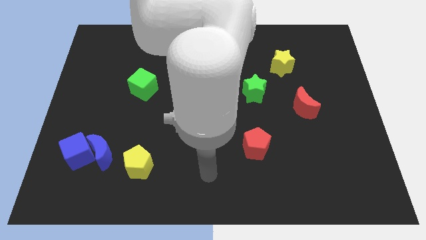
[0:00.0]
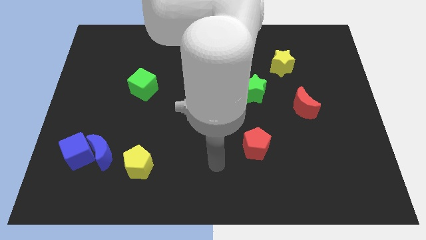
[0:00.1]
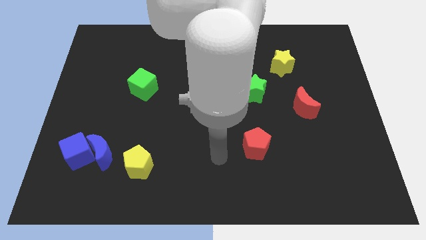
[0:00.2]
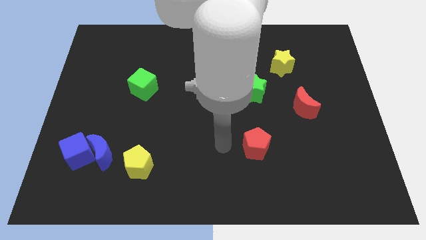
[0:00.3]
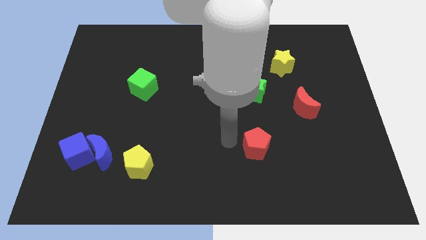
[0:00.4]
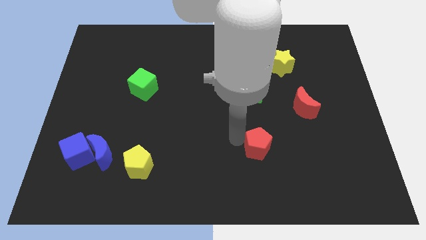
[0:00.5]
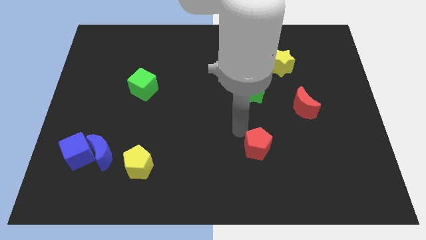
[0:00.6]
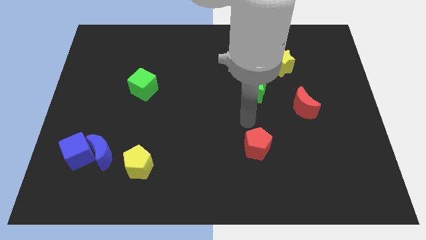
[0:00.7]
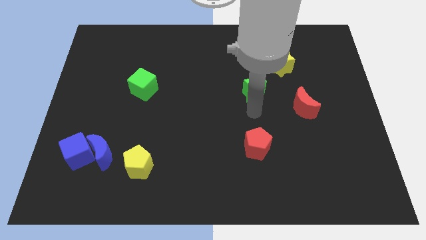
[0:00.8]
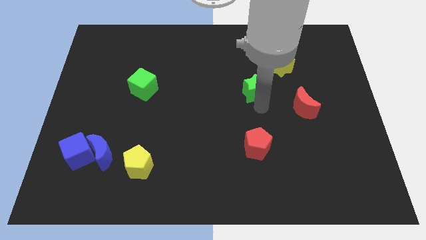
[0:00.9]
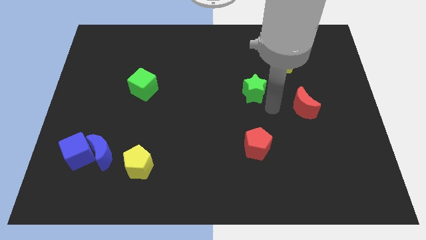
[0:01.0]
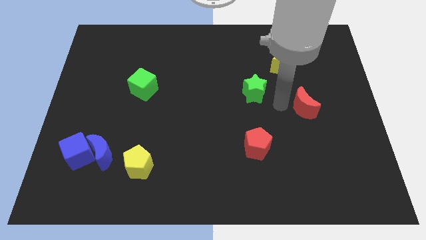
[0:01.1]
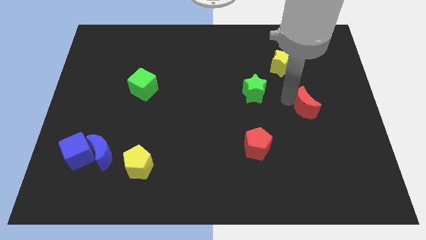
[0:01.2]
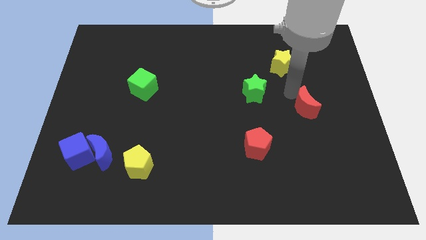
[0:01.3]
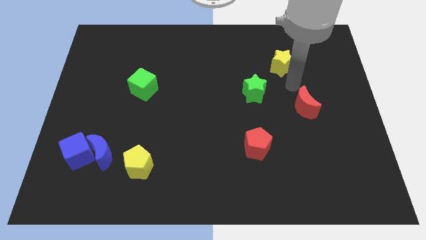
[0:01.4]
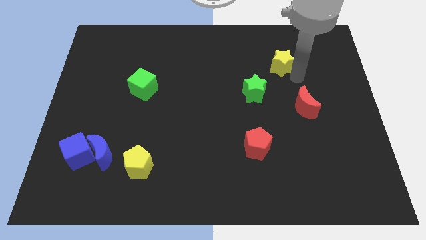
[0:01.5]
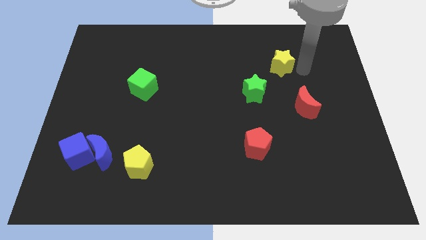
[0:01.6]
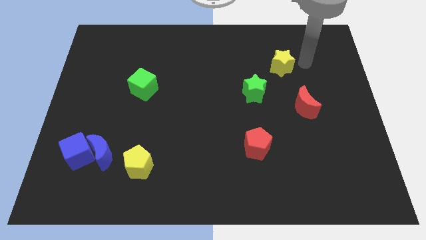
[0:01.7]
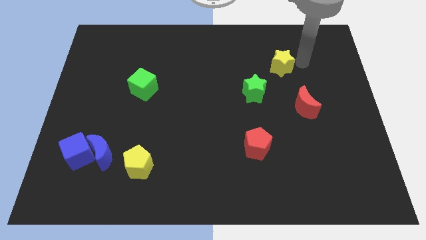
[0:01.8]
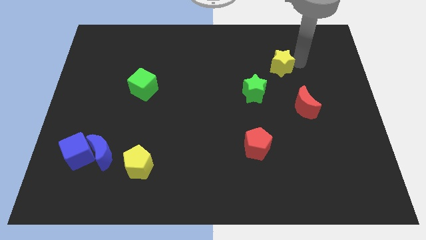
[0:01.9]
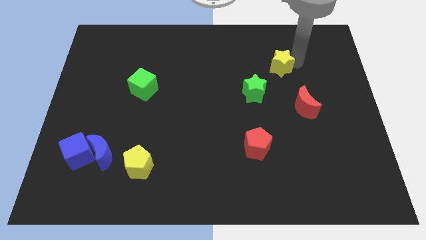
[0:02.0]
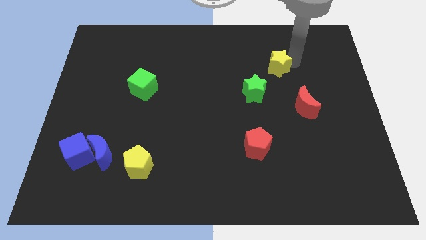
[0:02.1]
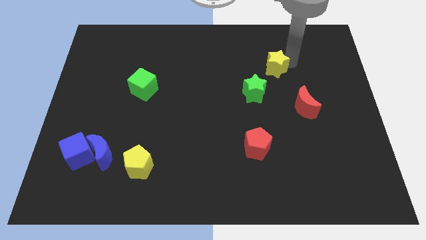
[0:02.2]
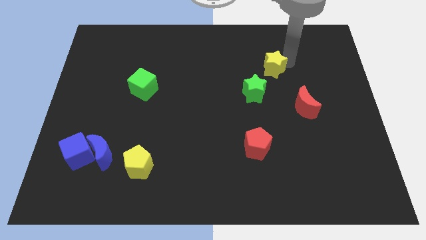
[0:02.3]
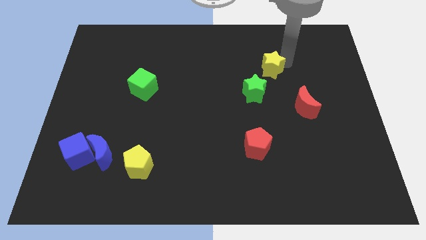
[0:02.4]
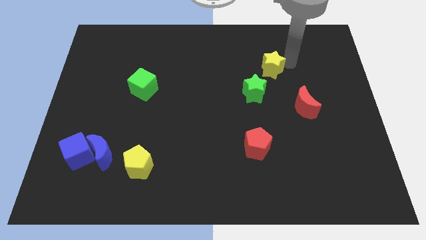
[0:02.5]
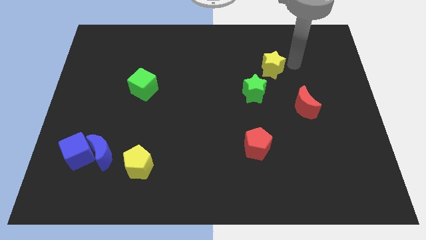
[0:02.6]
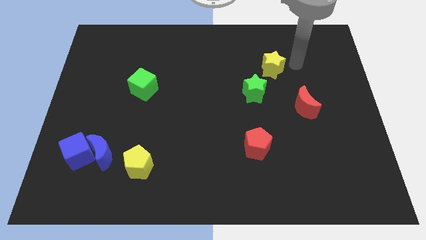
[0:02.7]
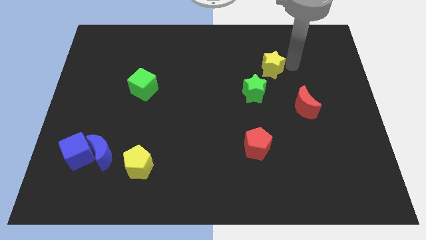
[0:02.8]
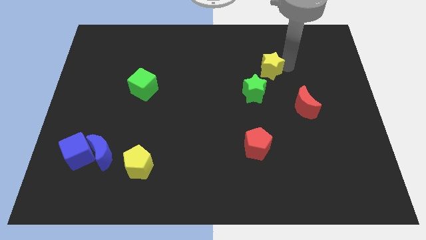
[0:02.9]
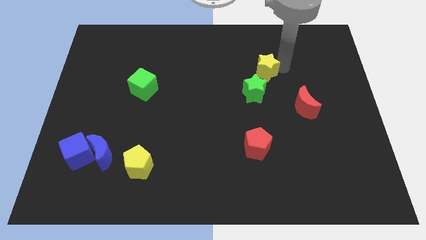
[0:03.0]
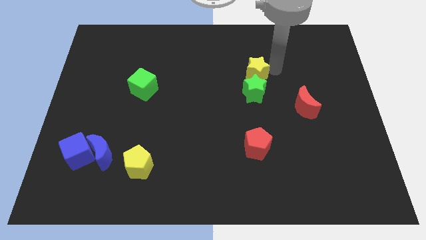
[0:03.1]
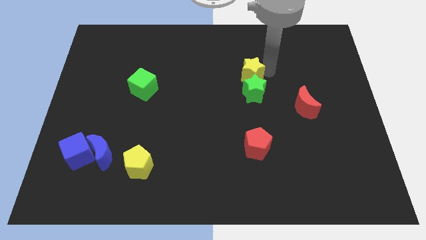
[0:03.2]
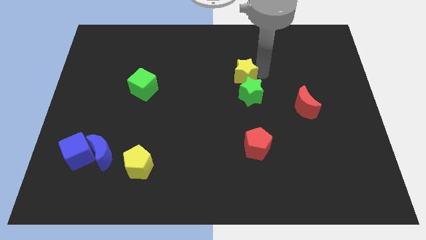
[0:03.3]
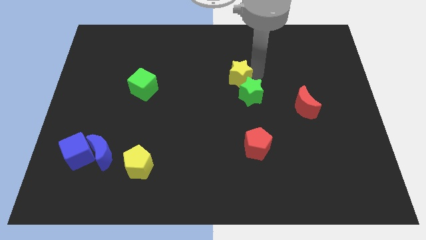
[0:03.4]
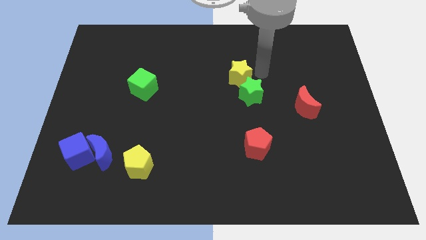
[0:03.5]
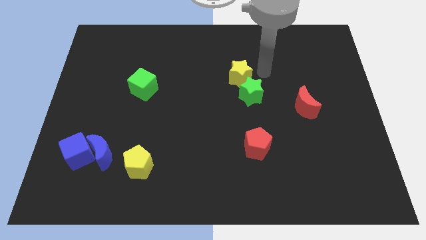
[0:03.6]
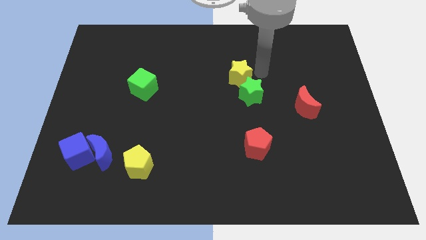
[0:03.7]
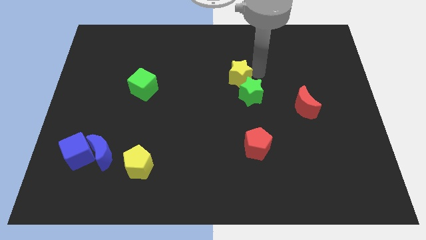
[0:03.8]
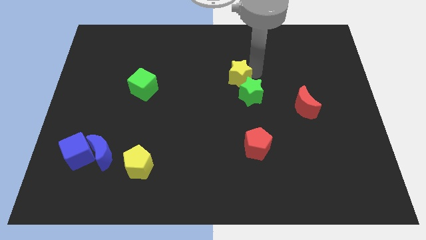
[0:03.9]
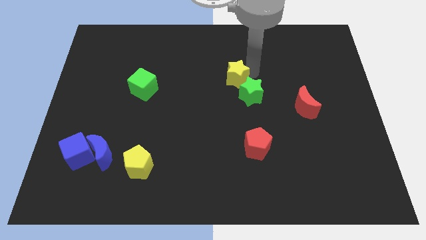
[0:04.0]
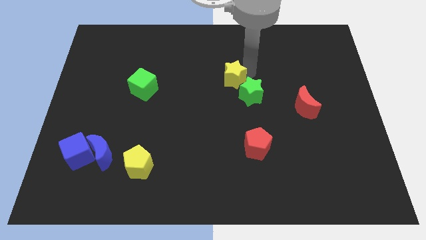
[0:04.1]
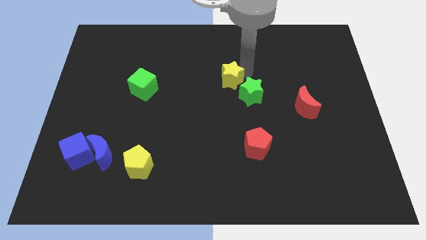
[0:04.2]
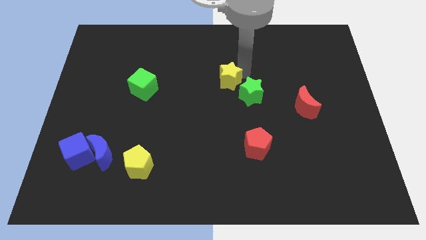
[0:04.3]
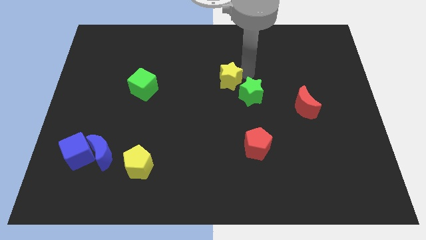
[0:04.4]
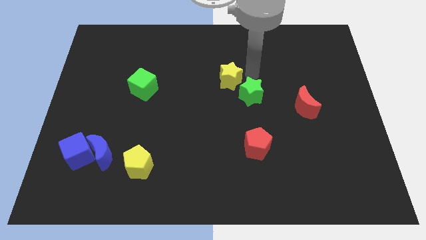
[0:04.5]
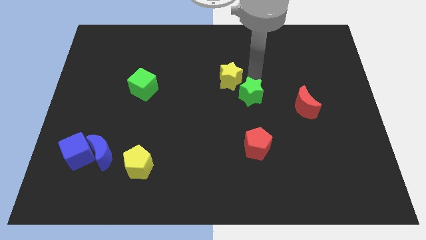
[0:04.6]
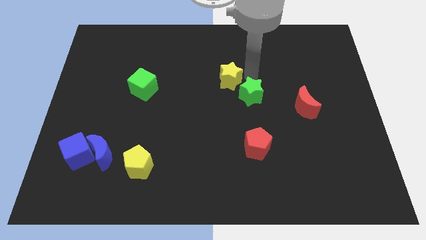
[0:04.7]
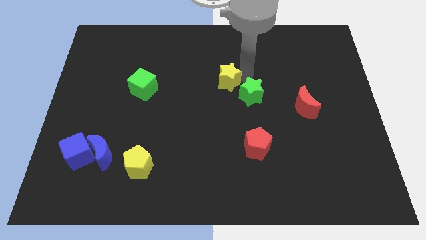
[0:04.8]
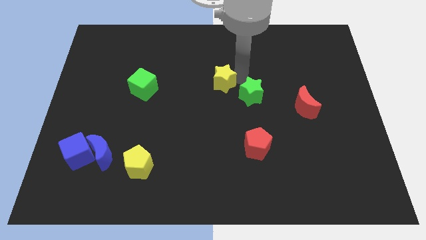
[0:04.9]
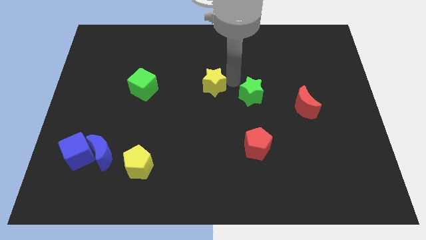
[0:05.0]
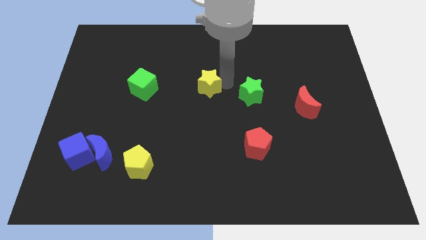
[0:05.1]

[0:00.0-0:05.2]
move the yellow star to the right side of the green cube

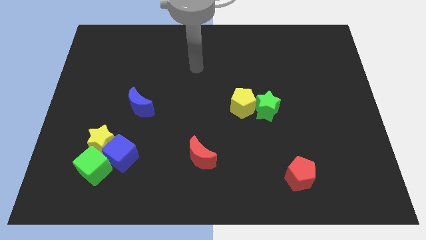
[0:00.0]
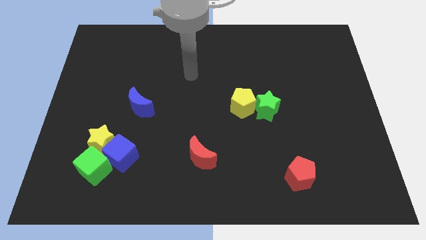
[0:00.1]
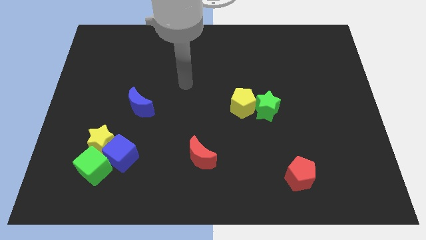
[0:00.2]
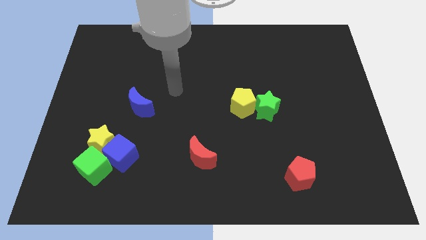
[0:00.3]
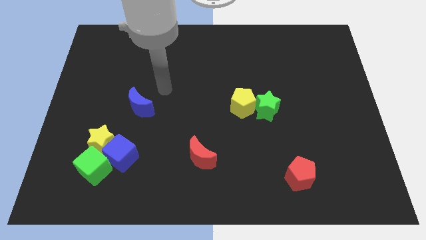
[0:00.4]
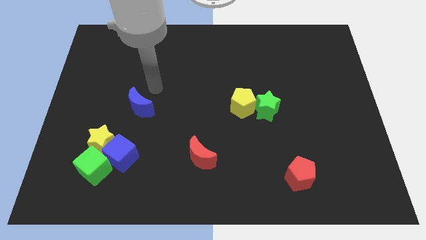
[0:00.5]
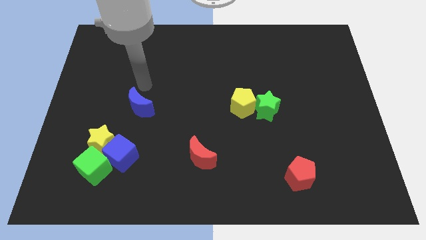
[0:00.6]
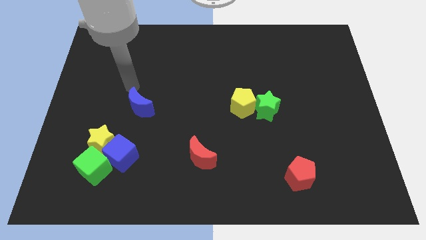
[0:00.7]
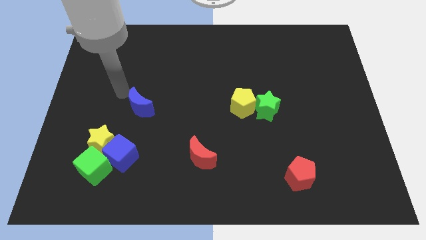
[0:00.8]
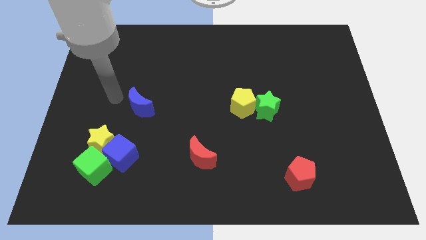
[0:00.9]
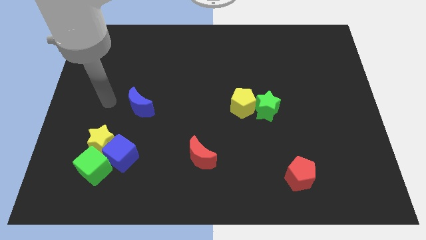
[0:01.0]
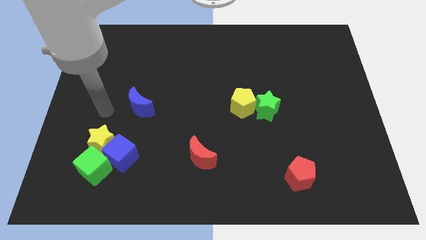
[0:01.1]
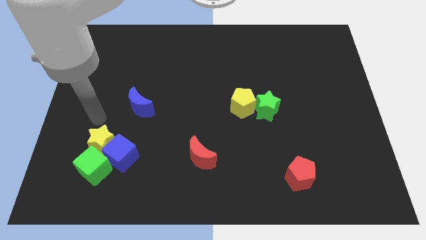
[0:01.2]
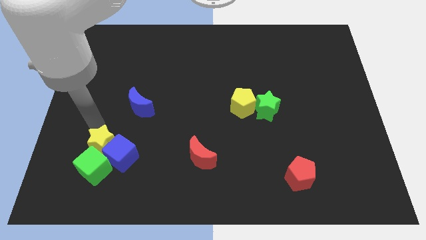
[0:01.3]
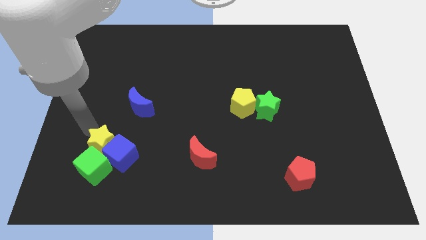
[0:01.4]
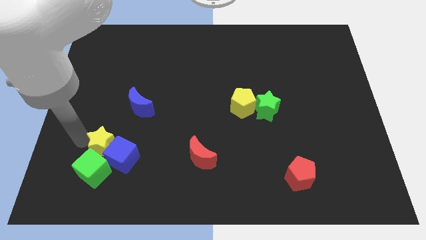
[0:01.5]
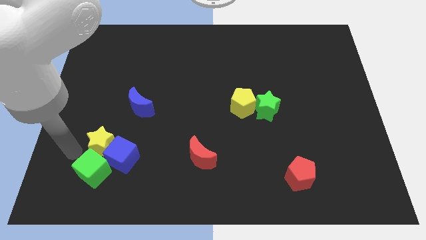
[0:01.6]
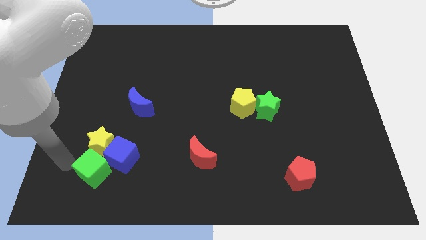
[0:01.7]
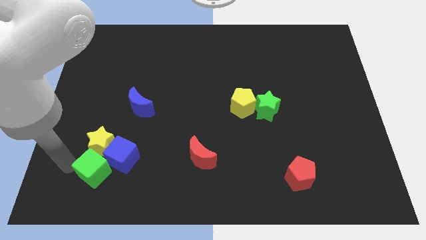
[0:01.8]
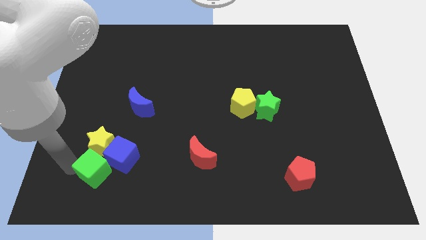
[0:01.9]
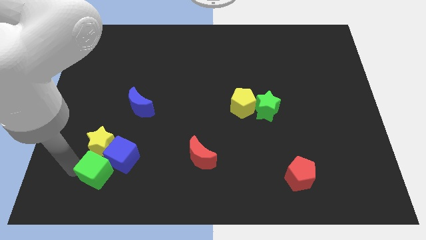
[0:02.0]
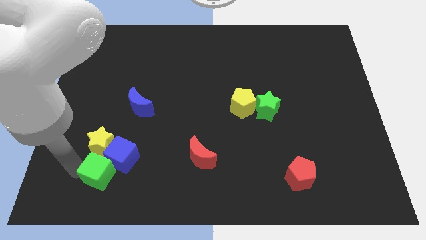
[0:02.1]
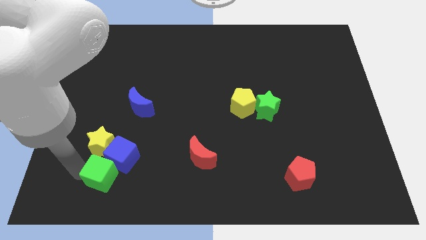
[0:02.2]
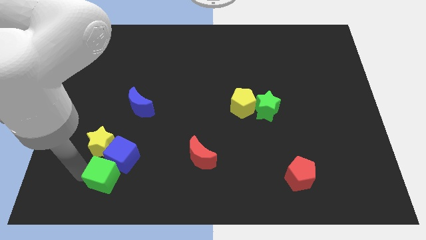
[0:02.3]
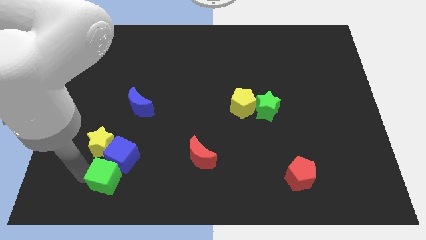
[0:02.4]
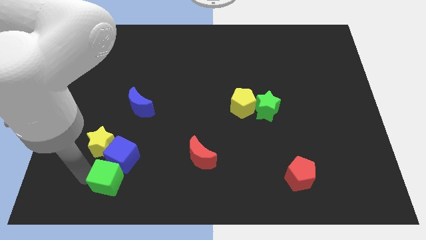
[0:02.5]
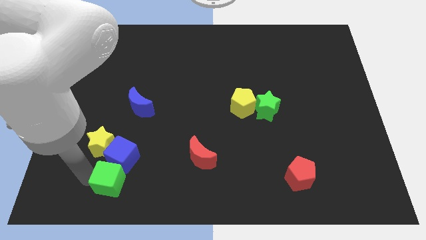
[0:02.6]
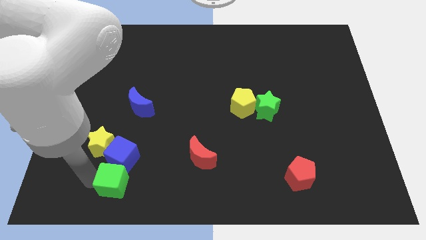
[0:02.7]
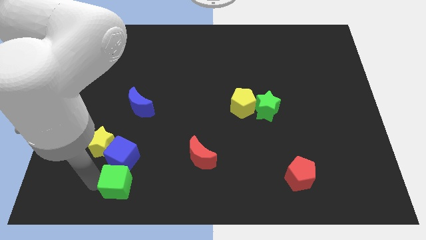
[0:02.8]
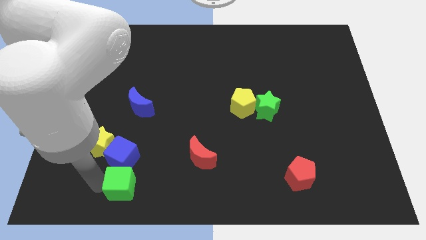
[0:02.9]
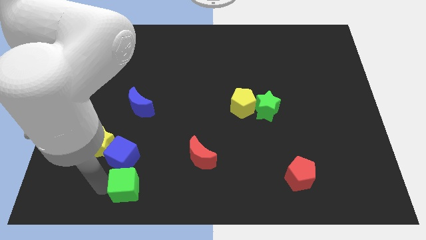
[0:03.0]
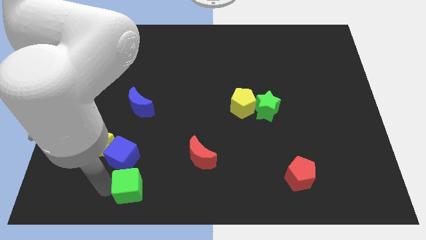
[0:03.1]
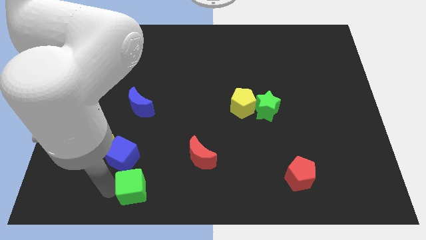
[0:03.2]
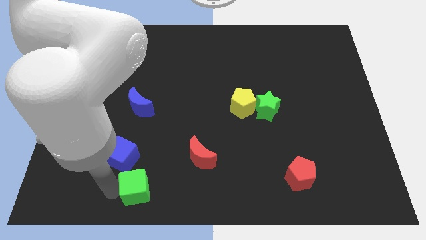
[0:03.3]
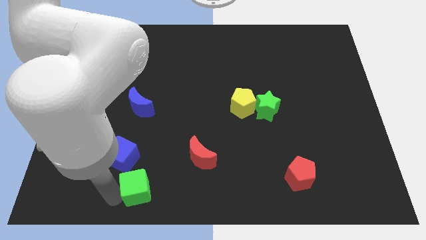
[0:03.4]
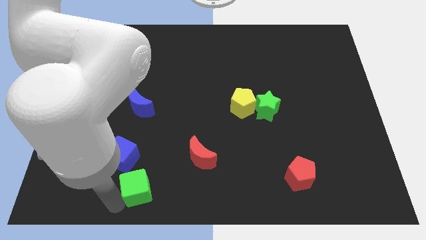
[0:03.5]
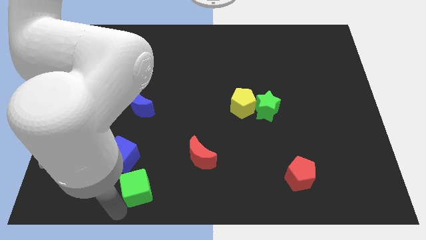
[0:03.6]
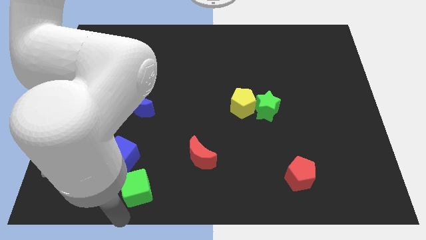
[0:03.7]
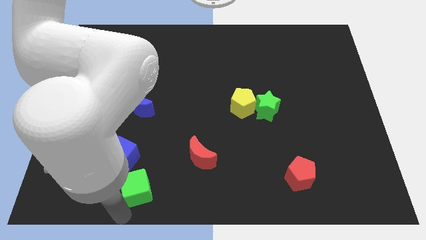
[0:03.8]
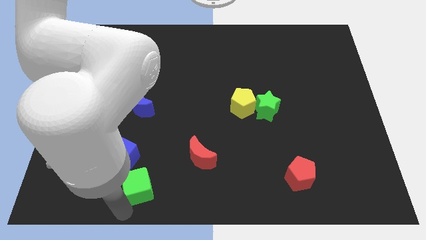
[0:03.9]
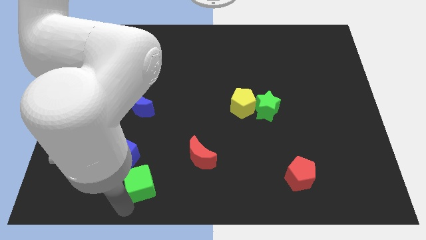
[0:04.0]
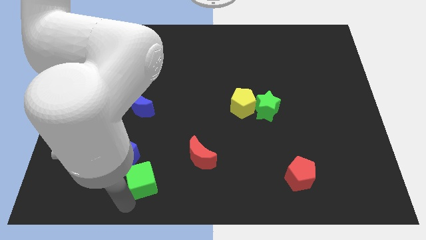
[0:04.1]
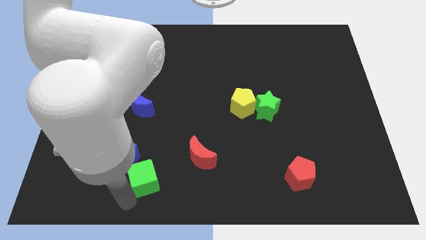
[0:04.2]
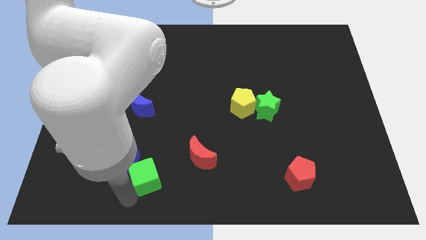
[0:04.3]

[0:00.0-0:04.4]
move the green cube just right of the blue cube
